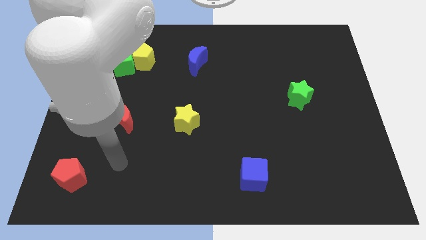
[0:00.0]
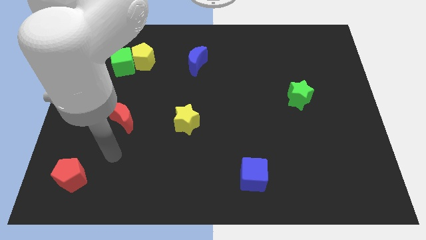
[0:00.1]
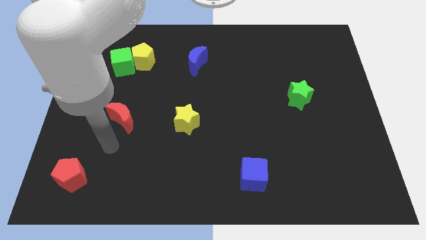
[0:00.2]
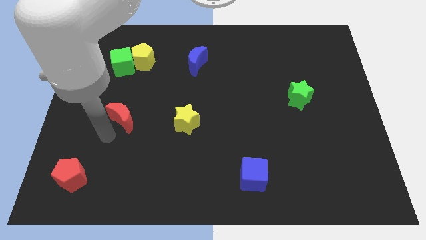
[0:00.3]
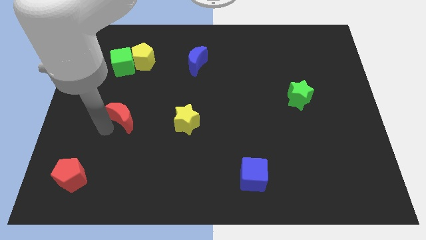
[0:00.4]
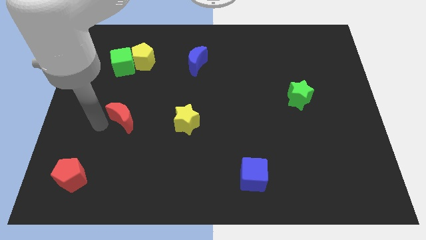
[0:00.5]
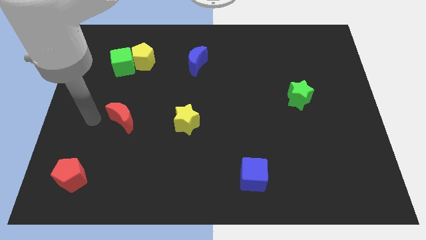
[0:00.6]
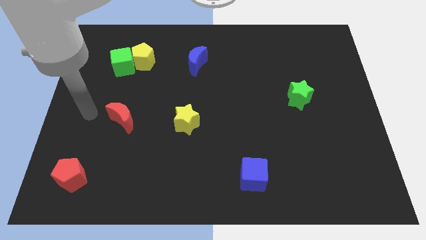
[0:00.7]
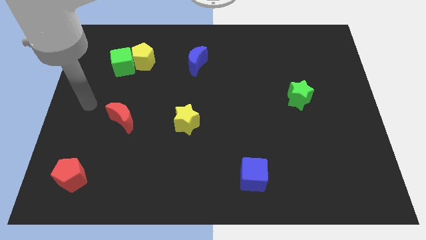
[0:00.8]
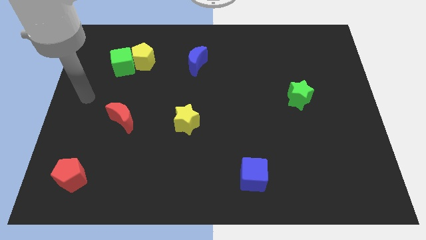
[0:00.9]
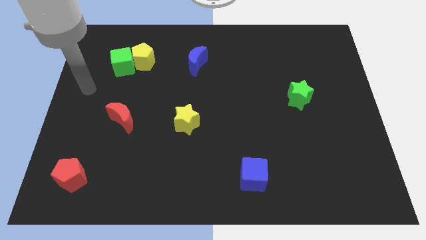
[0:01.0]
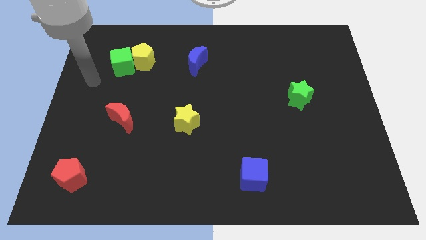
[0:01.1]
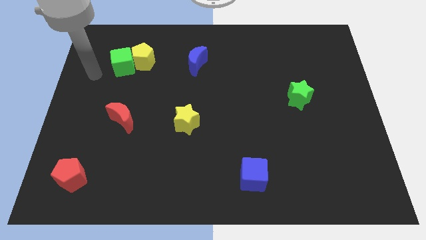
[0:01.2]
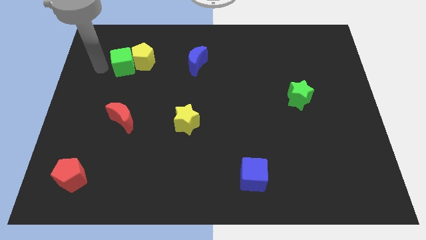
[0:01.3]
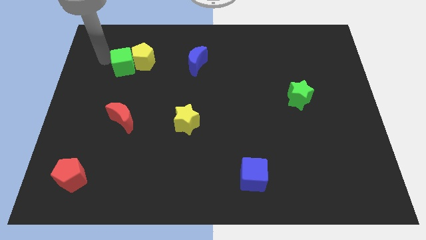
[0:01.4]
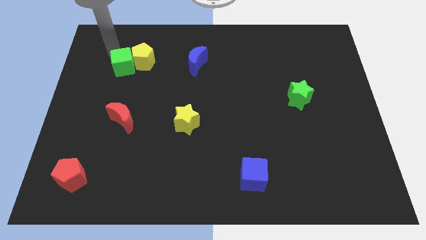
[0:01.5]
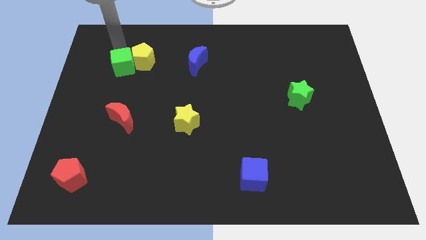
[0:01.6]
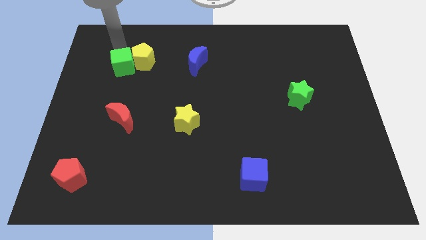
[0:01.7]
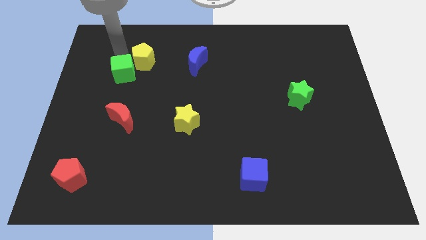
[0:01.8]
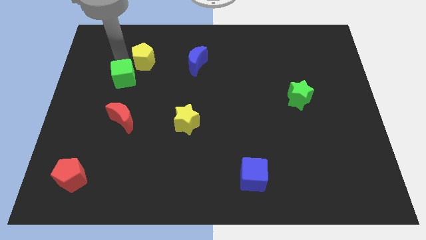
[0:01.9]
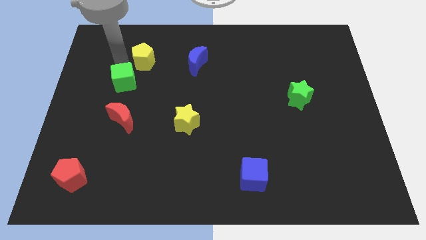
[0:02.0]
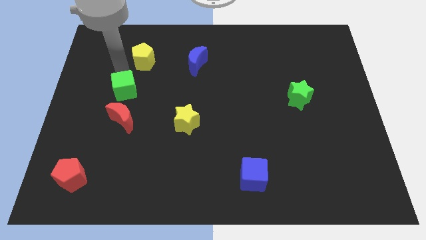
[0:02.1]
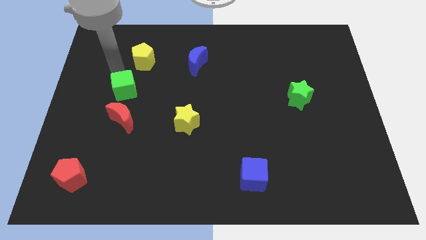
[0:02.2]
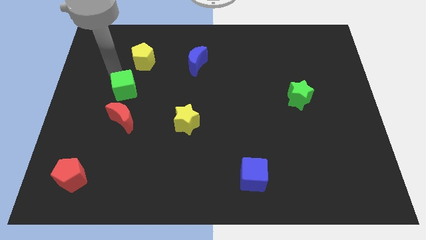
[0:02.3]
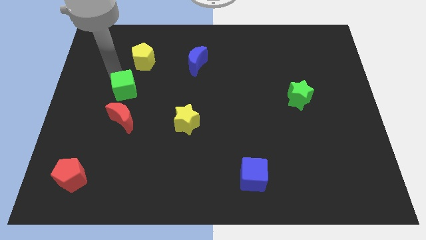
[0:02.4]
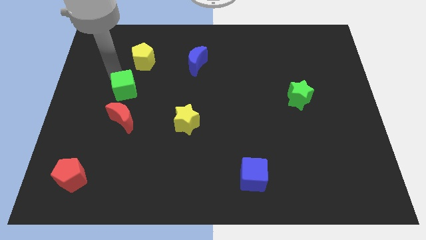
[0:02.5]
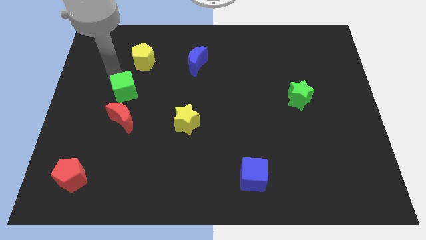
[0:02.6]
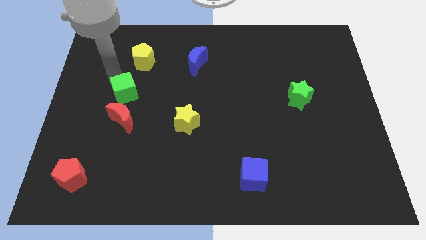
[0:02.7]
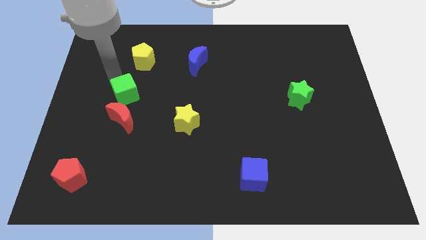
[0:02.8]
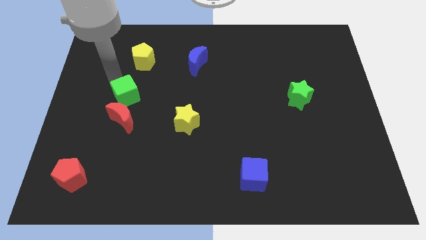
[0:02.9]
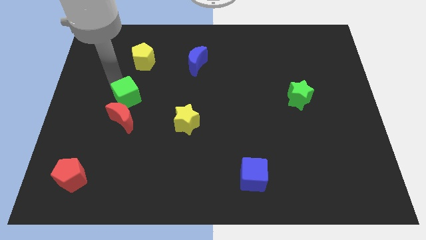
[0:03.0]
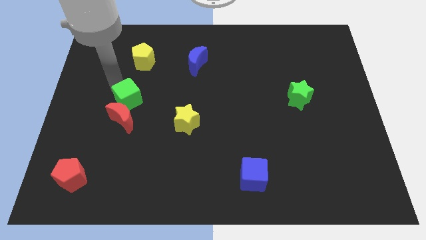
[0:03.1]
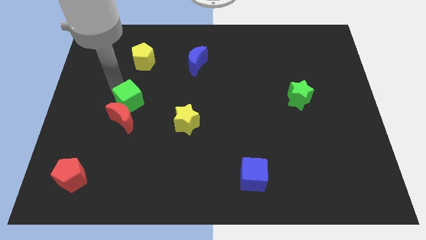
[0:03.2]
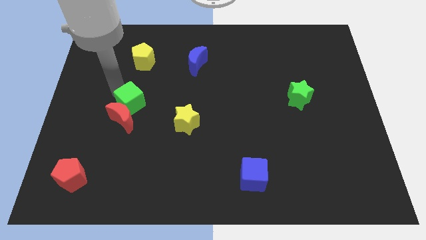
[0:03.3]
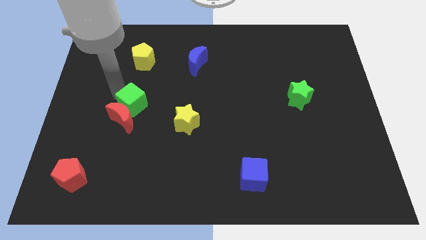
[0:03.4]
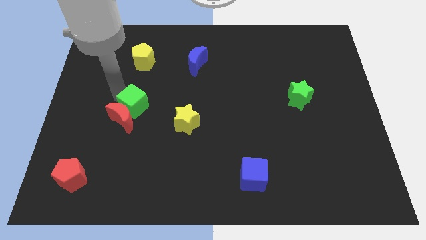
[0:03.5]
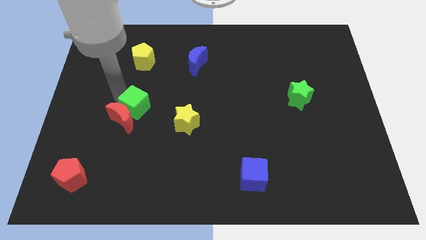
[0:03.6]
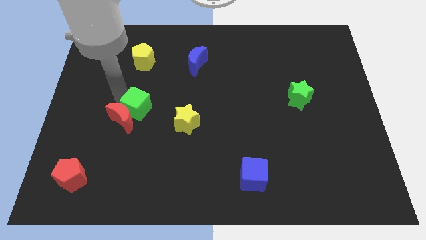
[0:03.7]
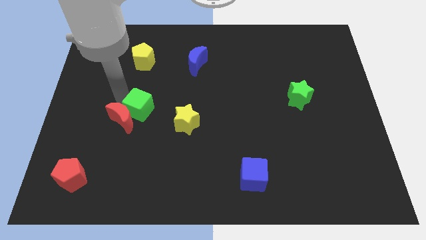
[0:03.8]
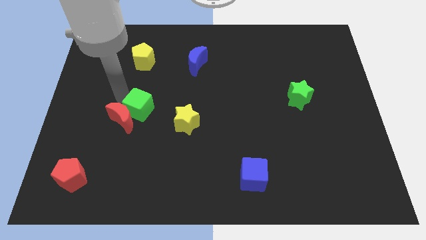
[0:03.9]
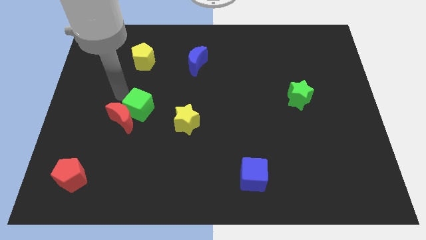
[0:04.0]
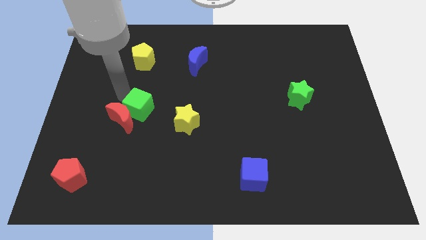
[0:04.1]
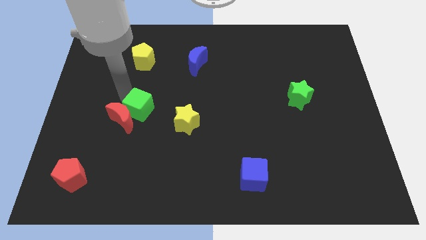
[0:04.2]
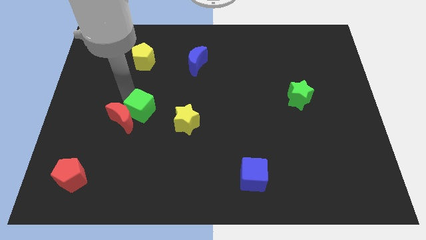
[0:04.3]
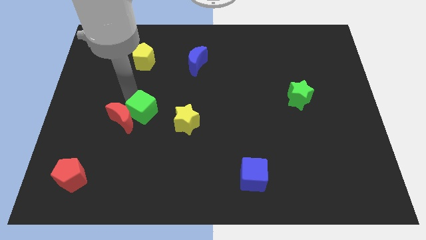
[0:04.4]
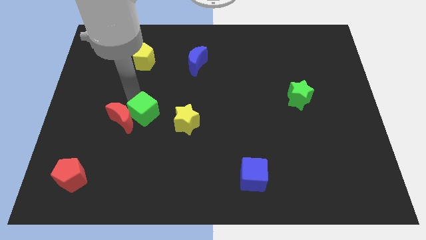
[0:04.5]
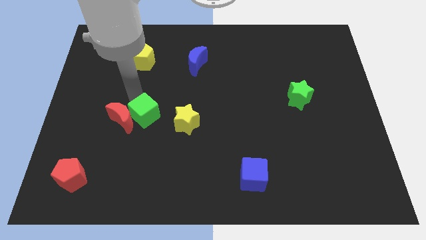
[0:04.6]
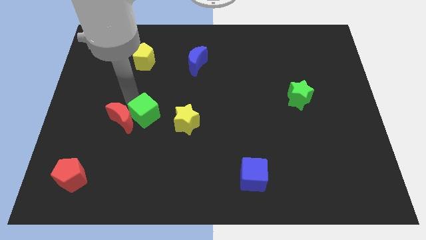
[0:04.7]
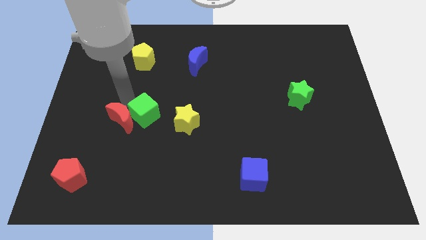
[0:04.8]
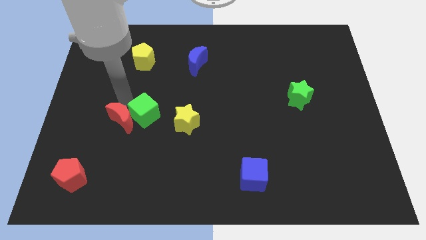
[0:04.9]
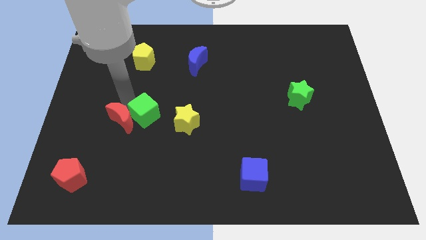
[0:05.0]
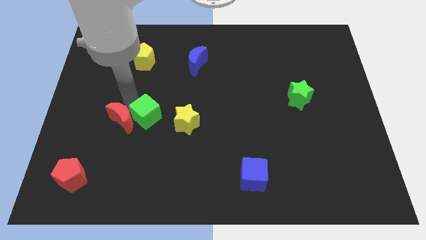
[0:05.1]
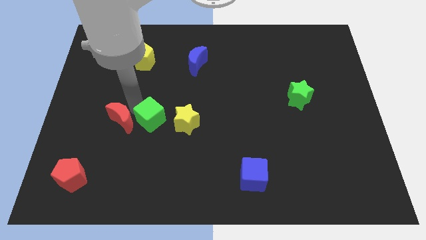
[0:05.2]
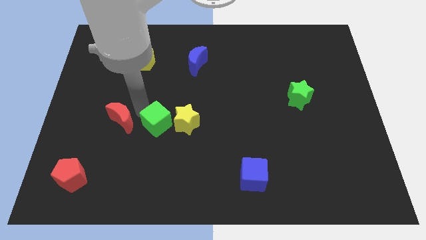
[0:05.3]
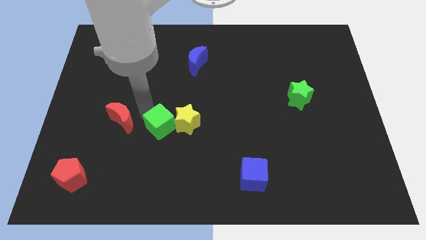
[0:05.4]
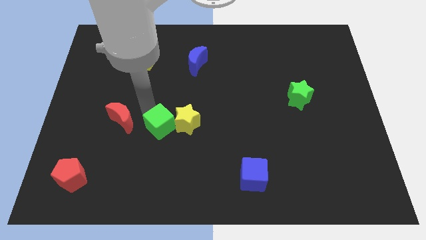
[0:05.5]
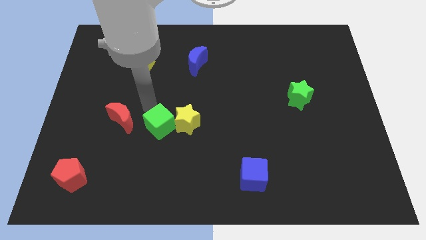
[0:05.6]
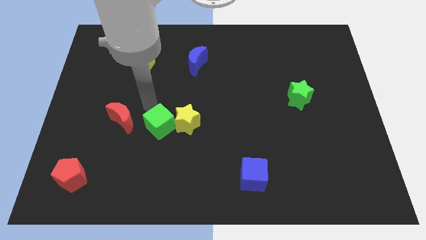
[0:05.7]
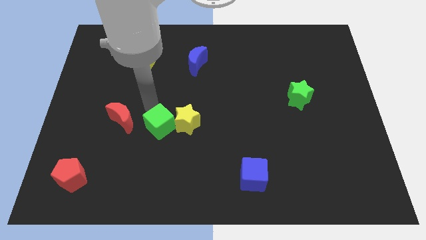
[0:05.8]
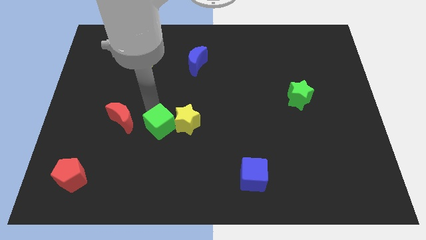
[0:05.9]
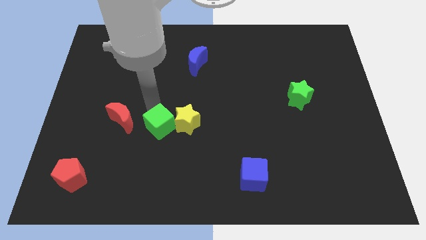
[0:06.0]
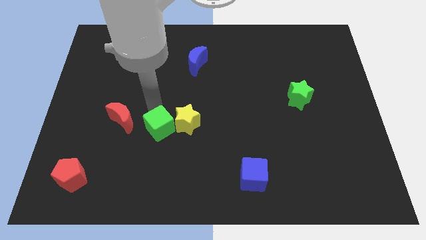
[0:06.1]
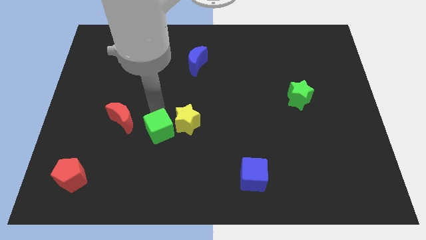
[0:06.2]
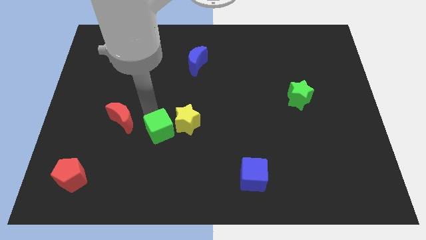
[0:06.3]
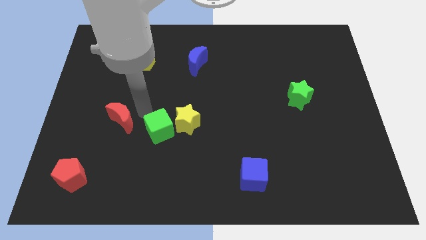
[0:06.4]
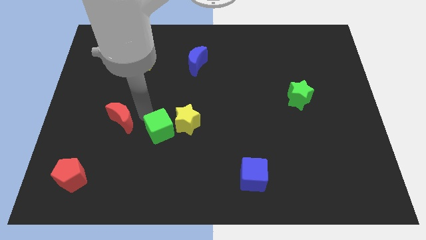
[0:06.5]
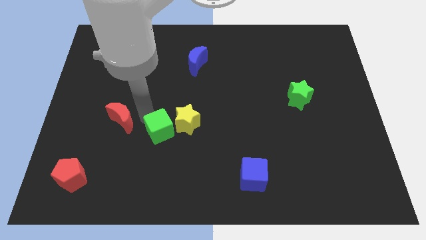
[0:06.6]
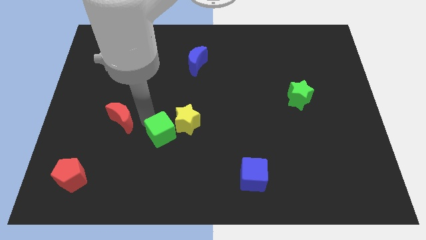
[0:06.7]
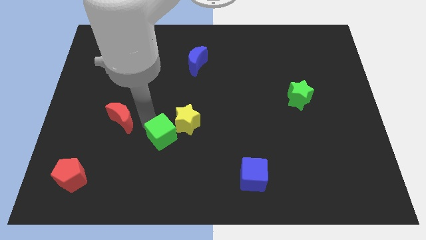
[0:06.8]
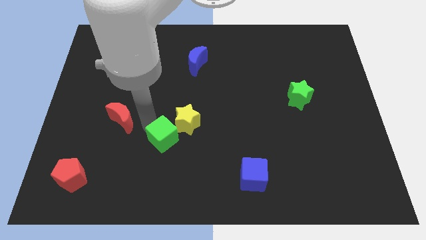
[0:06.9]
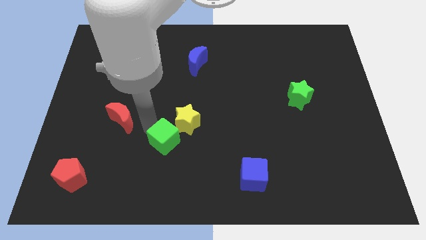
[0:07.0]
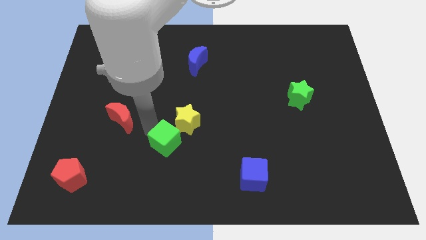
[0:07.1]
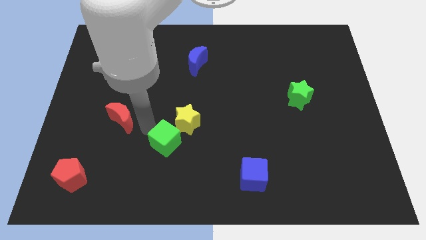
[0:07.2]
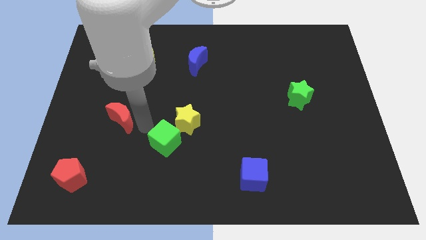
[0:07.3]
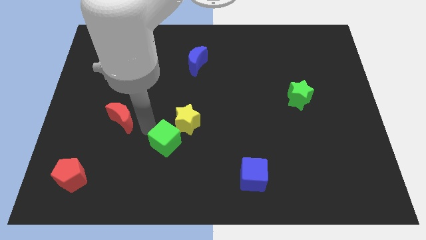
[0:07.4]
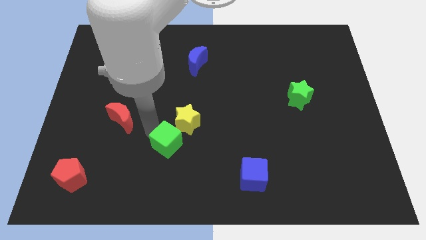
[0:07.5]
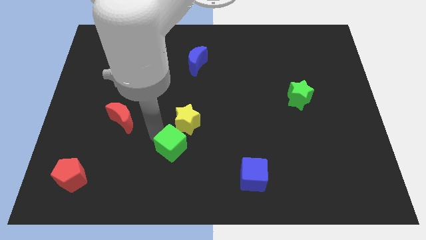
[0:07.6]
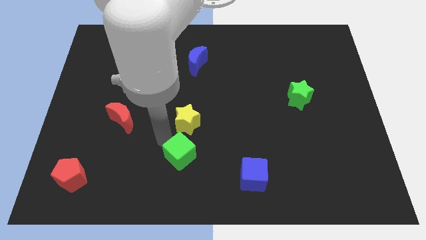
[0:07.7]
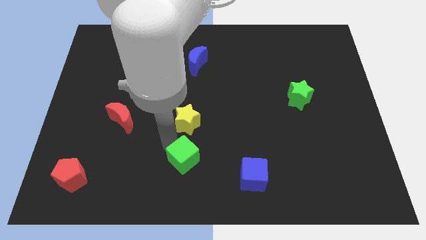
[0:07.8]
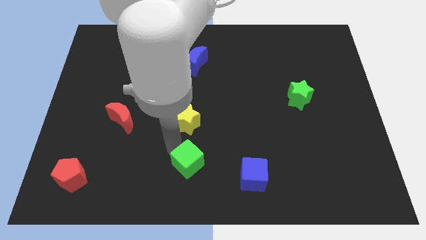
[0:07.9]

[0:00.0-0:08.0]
push the green cube to the bottom
